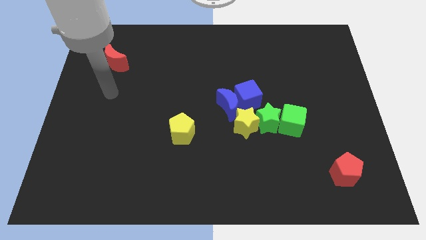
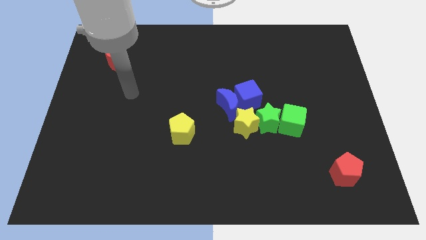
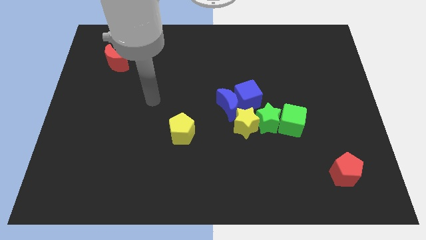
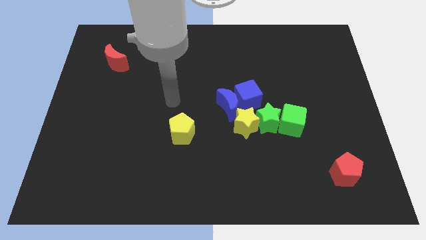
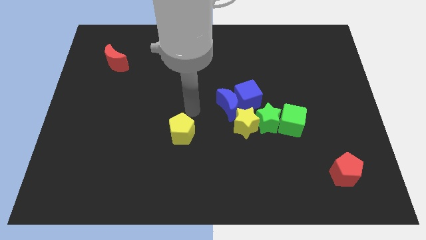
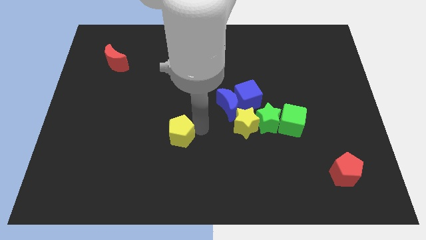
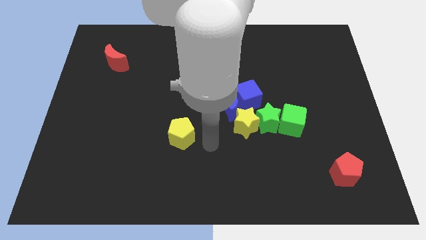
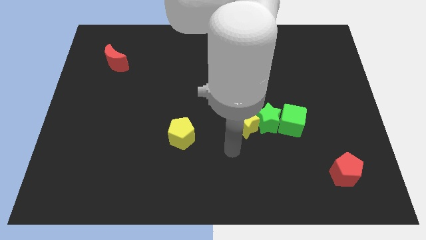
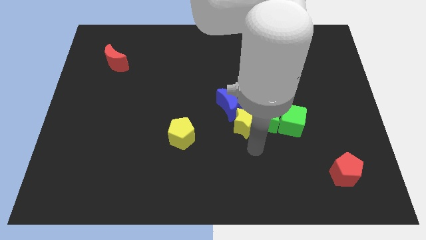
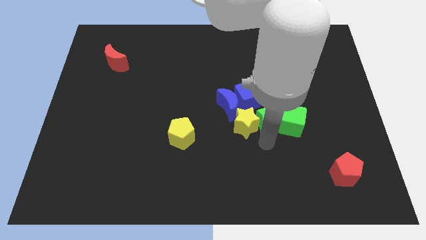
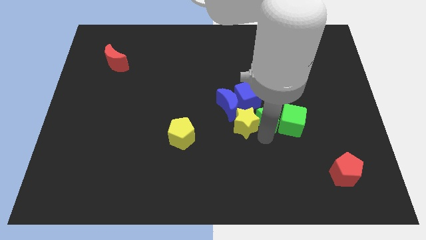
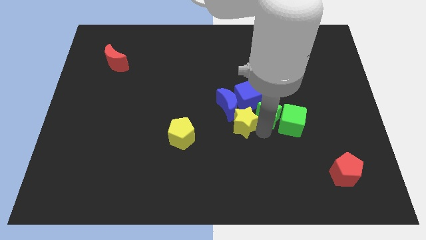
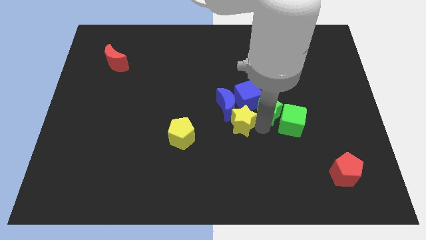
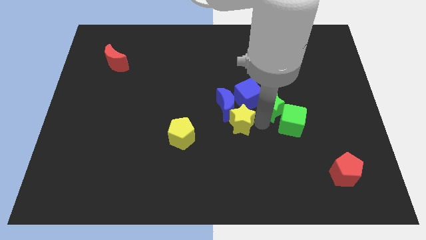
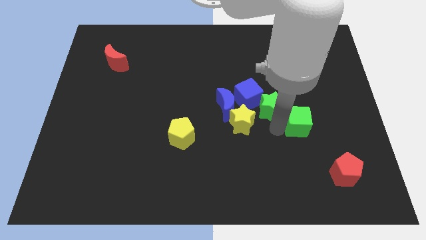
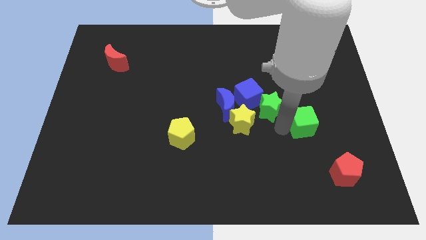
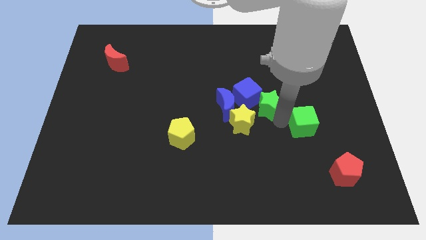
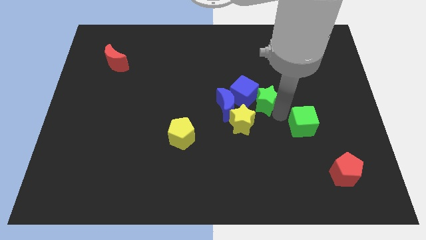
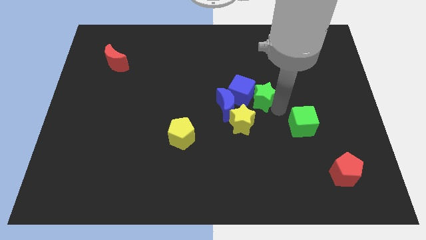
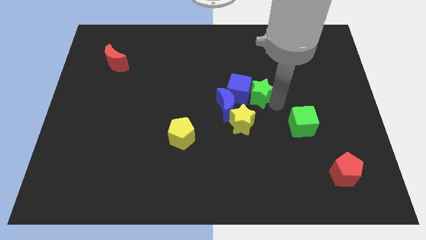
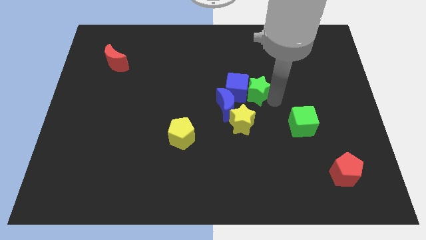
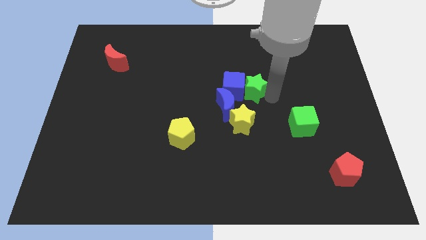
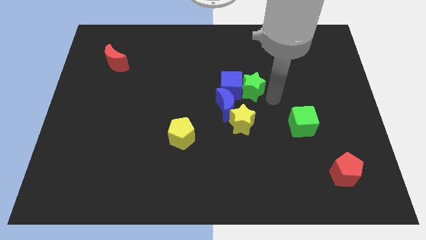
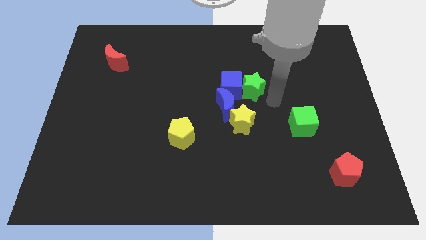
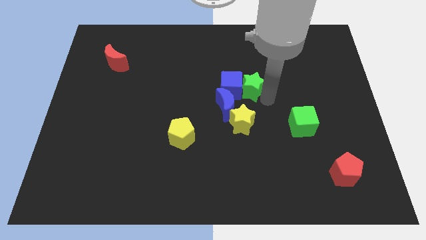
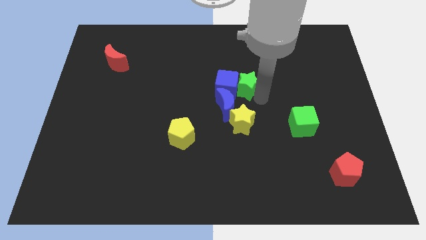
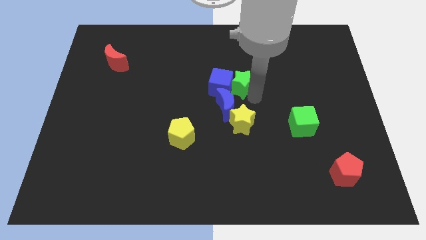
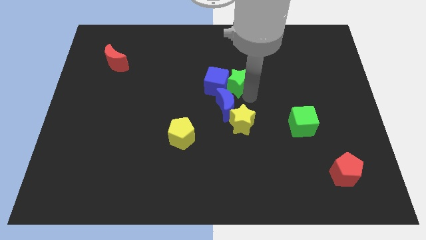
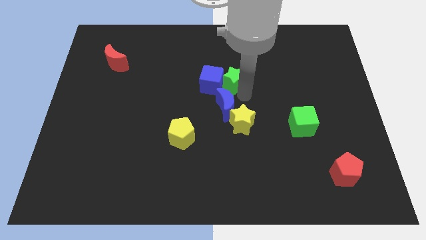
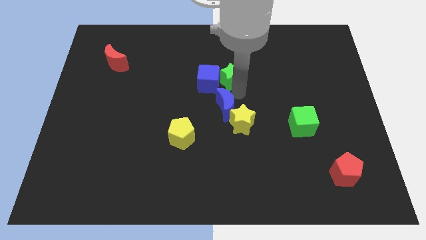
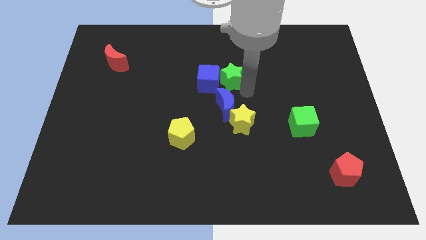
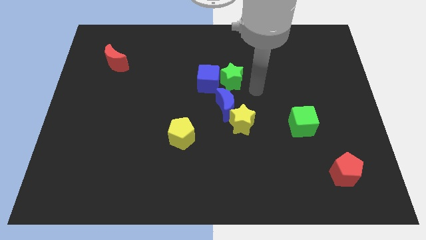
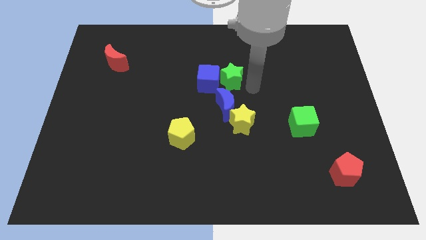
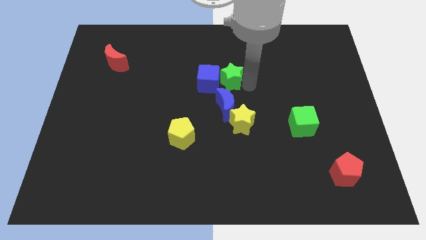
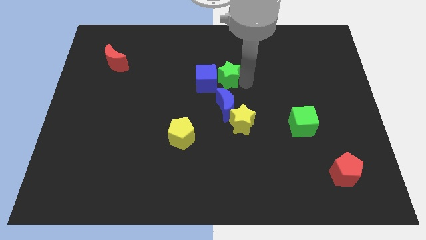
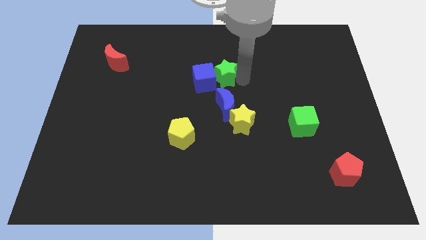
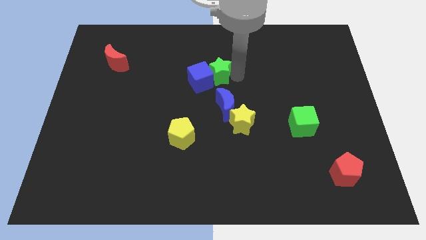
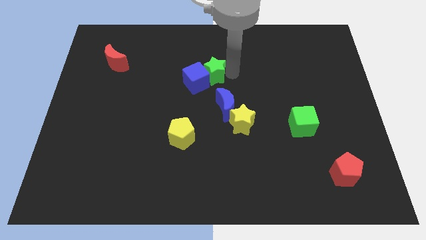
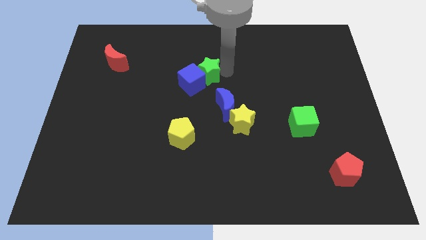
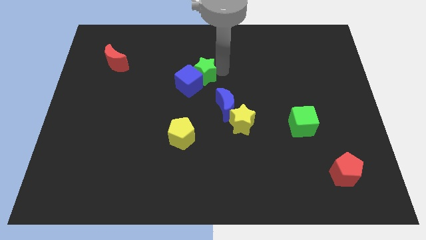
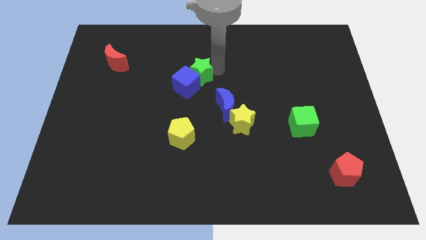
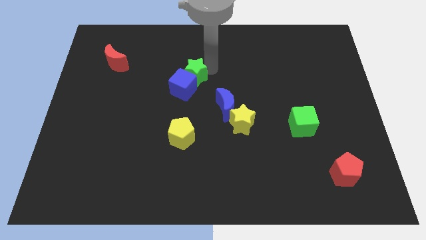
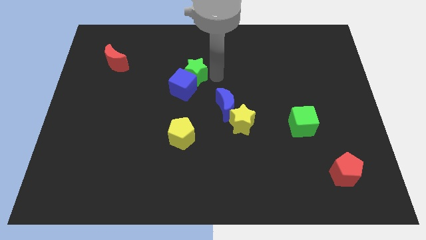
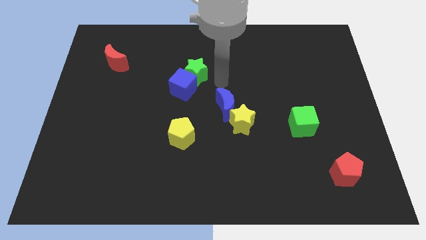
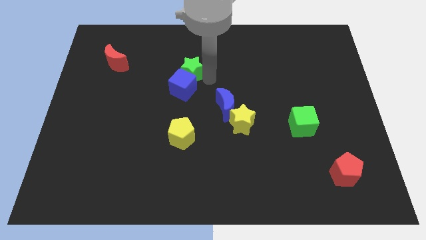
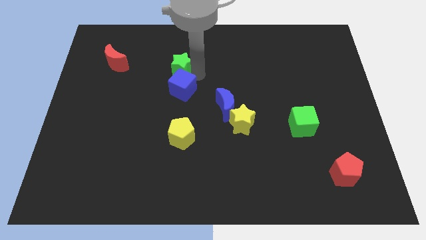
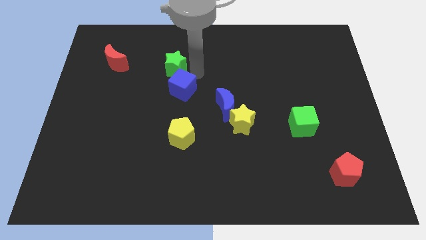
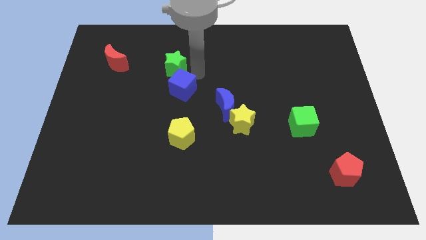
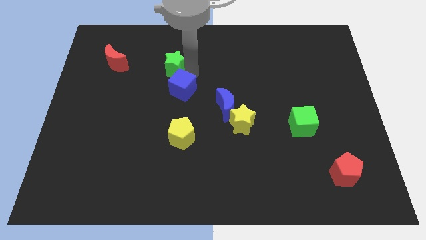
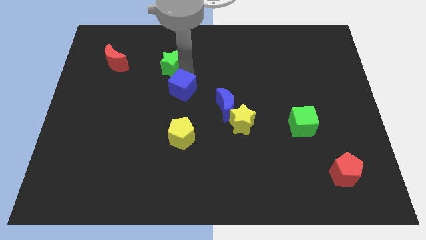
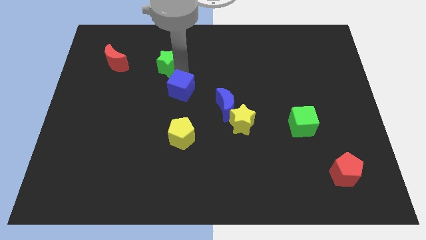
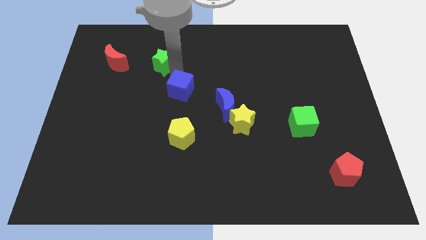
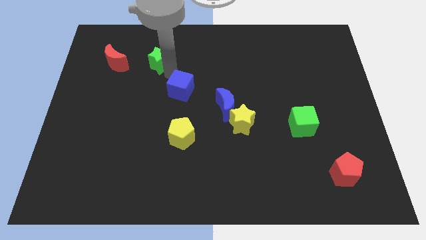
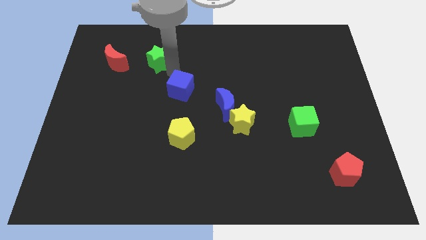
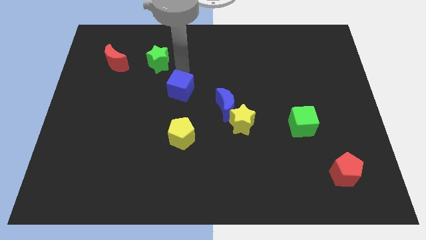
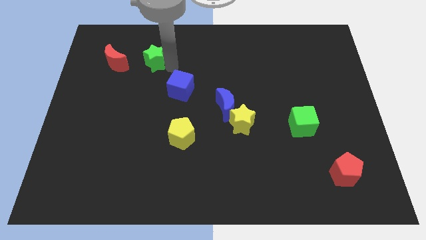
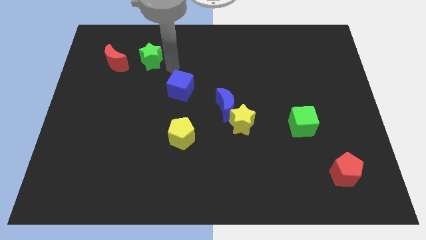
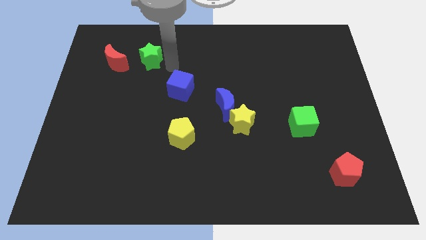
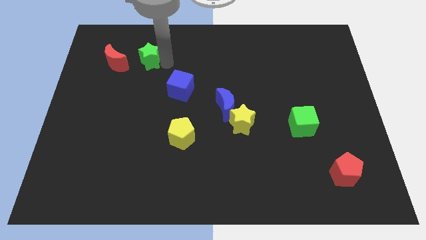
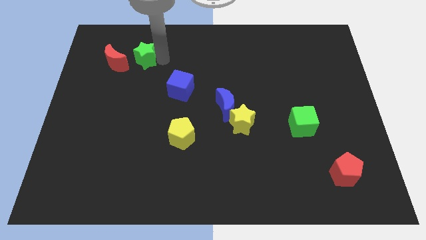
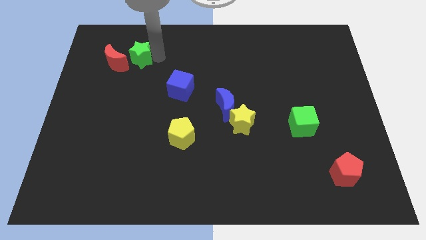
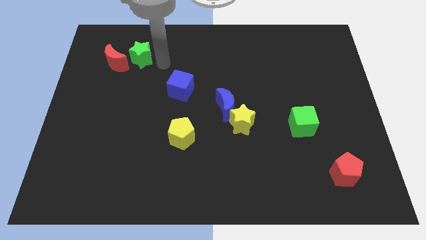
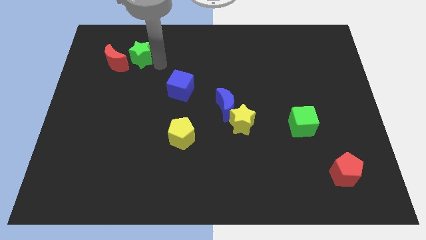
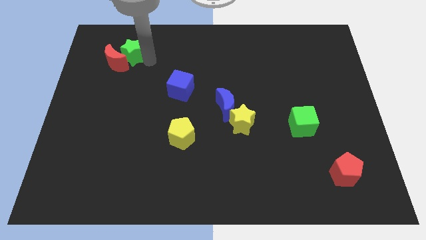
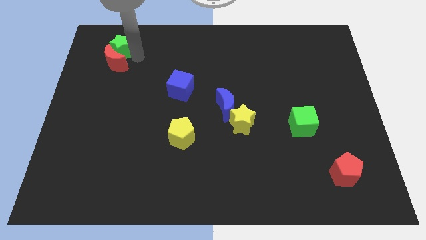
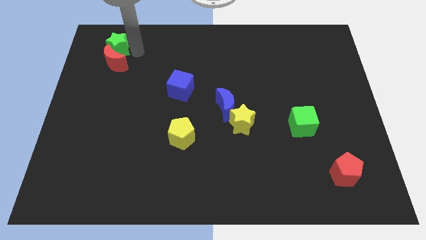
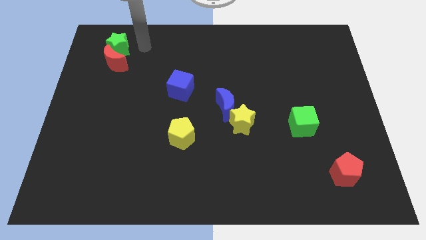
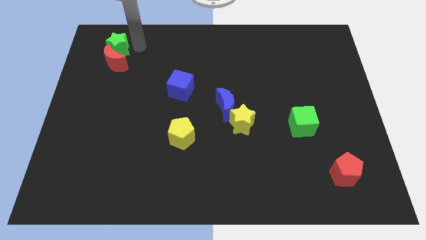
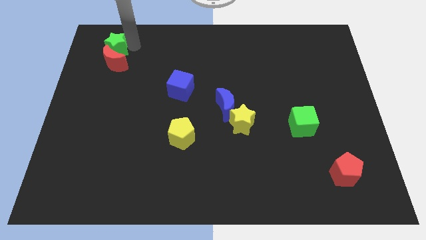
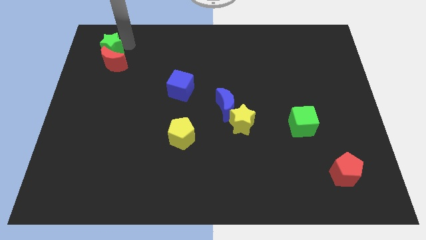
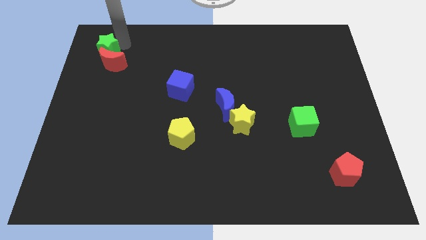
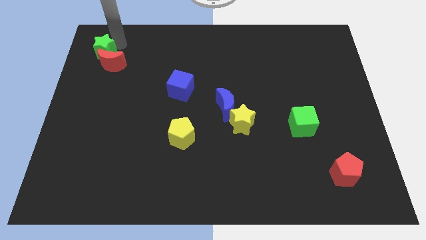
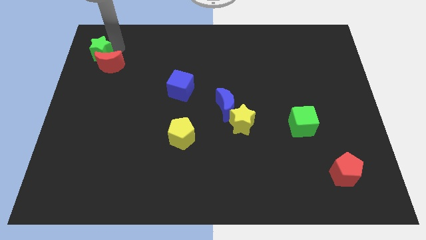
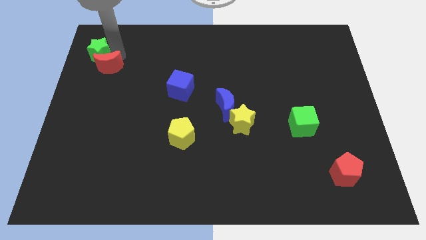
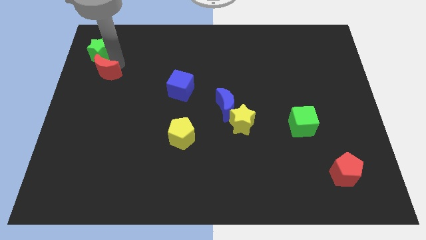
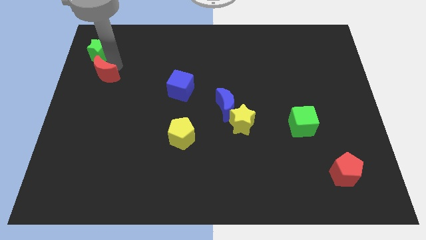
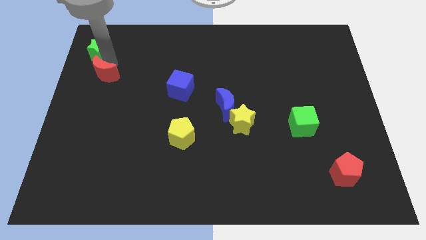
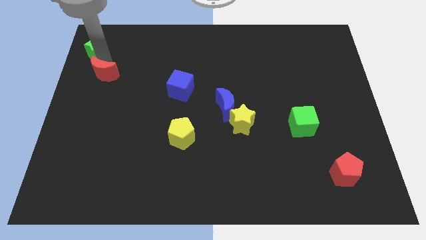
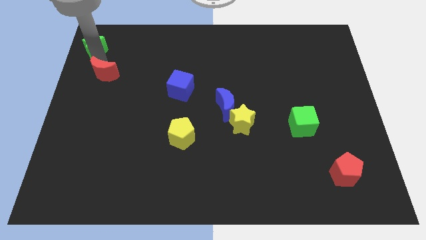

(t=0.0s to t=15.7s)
push the green star to the upper left corner
